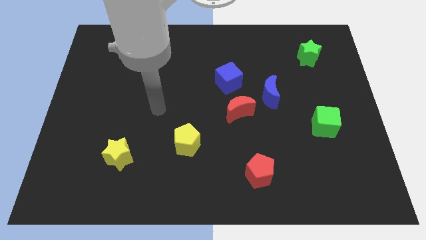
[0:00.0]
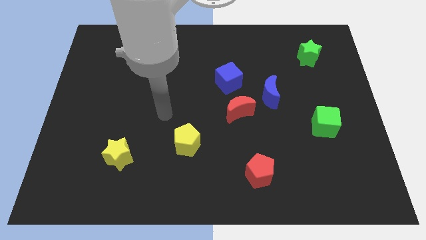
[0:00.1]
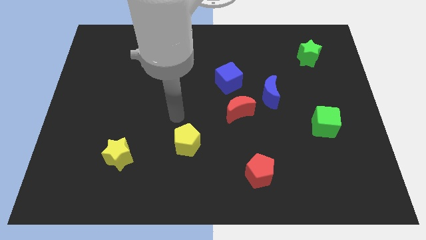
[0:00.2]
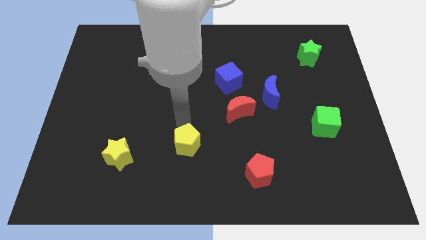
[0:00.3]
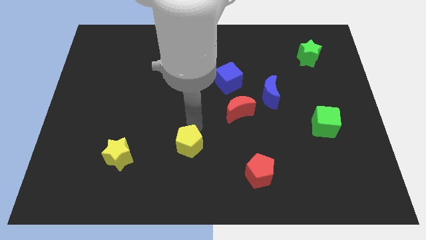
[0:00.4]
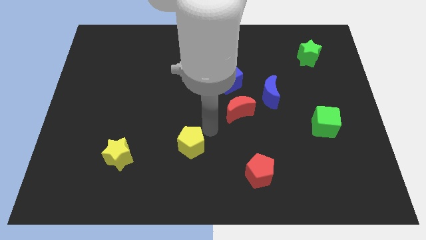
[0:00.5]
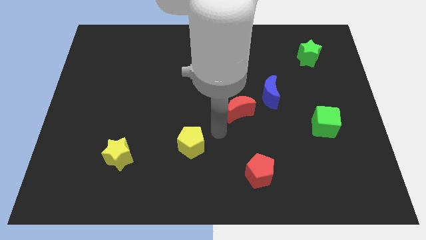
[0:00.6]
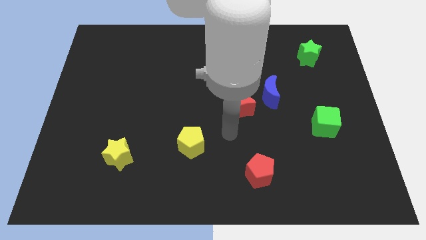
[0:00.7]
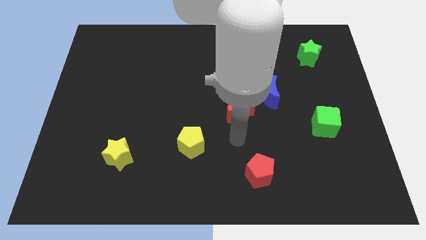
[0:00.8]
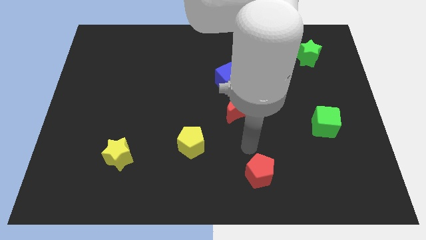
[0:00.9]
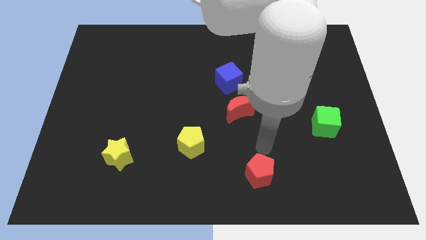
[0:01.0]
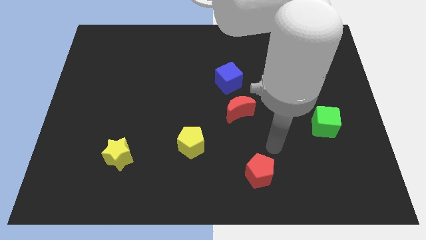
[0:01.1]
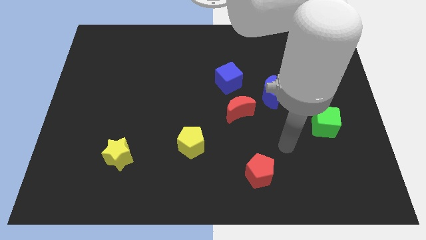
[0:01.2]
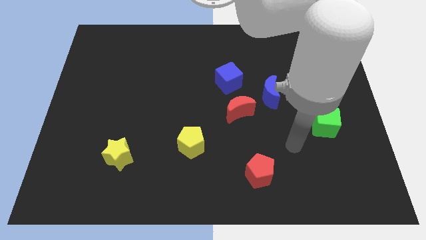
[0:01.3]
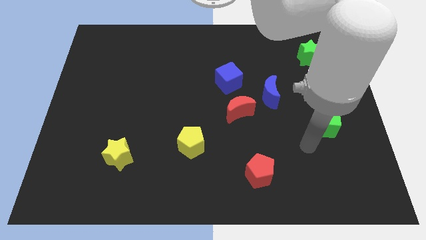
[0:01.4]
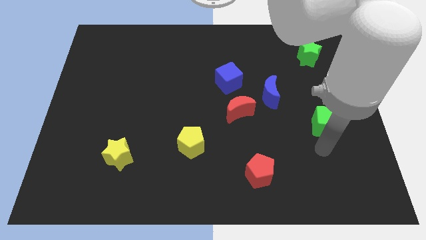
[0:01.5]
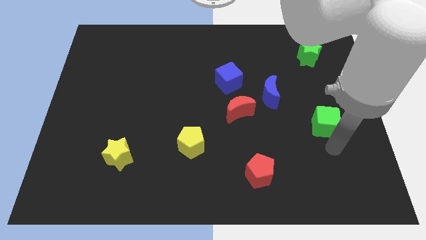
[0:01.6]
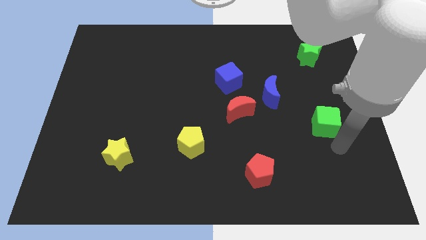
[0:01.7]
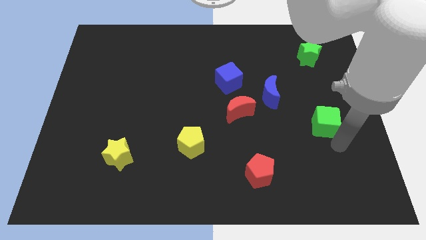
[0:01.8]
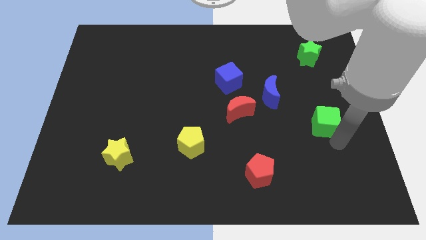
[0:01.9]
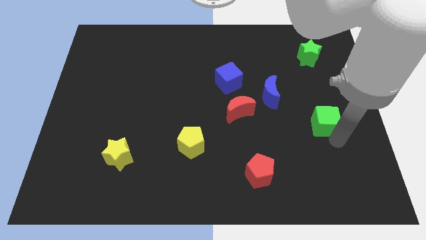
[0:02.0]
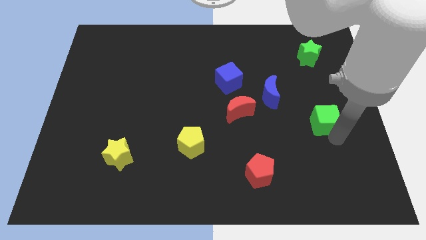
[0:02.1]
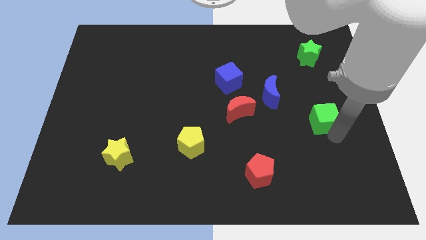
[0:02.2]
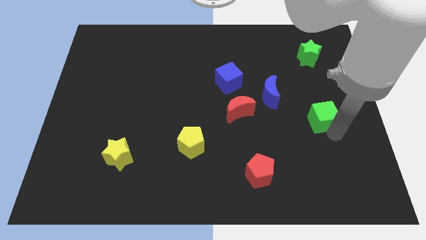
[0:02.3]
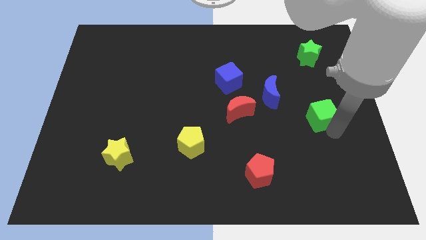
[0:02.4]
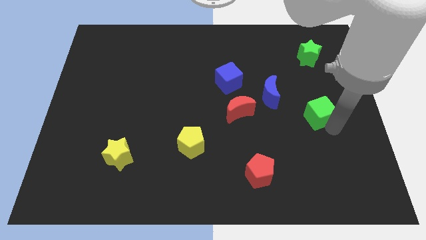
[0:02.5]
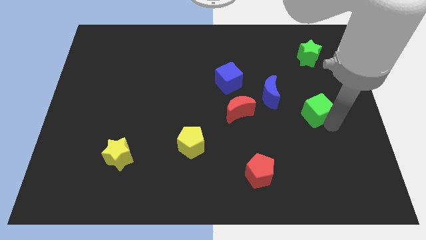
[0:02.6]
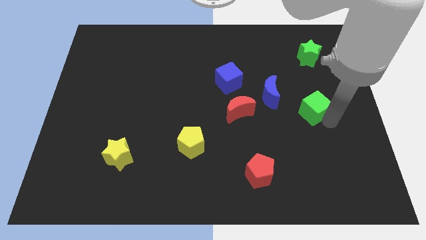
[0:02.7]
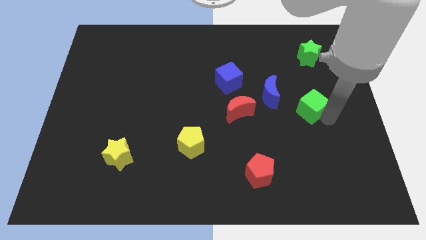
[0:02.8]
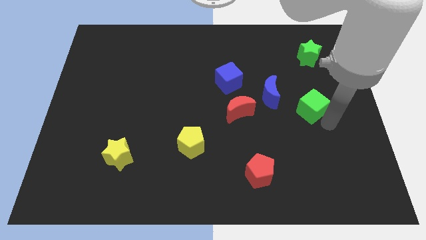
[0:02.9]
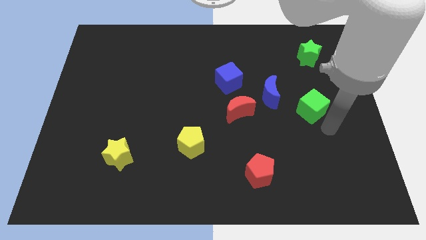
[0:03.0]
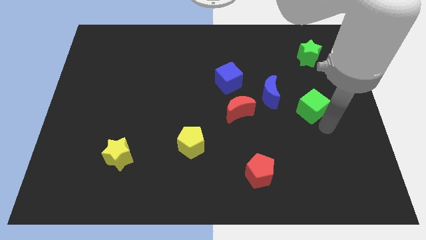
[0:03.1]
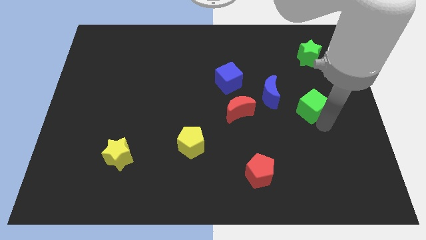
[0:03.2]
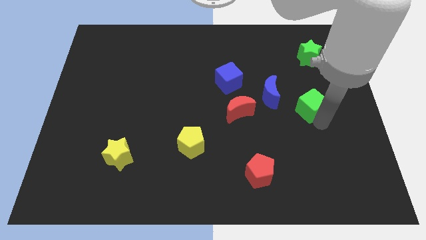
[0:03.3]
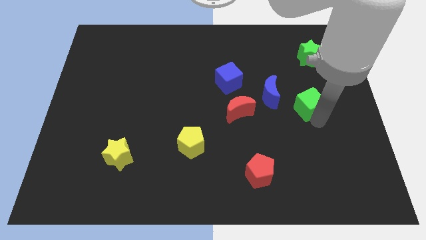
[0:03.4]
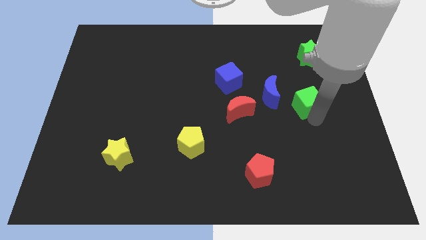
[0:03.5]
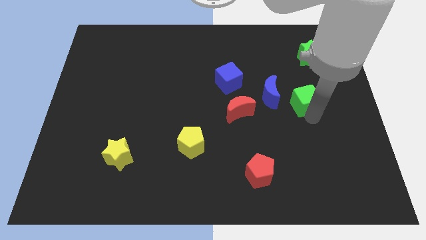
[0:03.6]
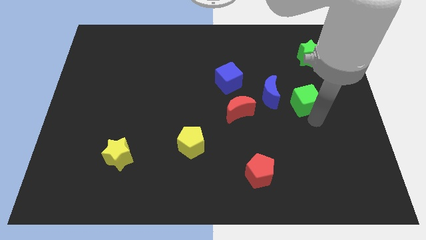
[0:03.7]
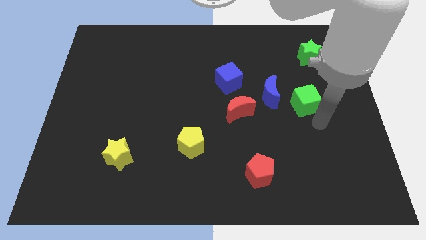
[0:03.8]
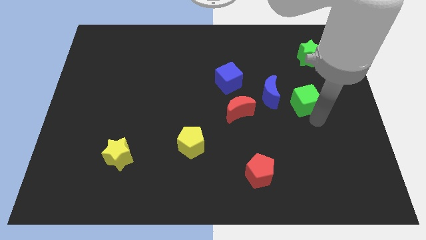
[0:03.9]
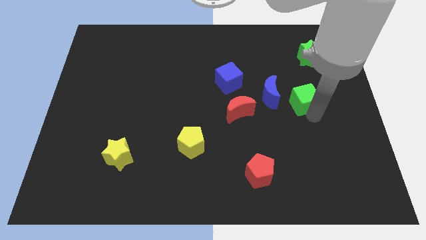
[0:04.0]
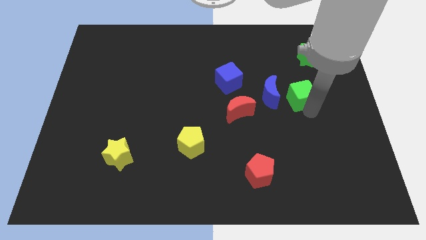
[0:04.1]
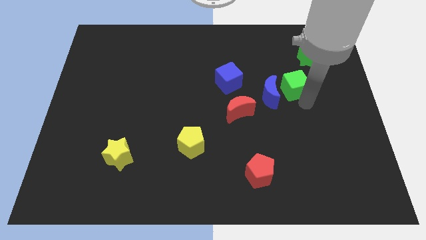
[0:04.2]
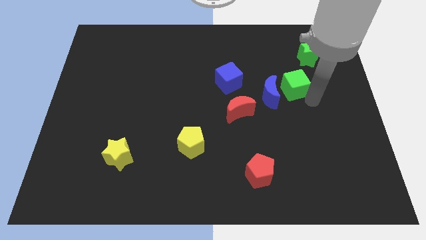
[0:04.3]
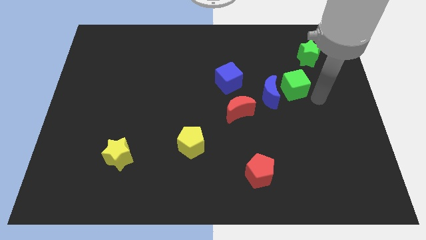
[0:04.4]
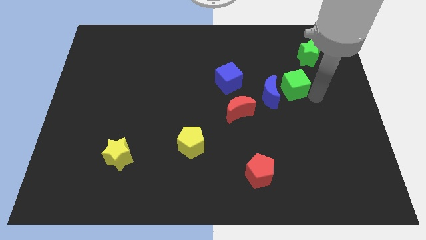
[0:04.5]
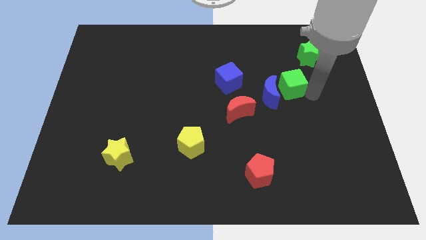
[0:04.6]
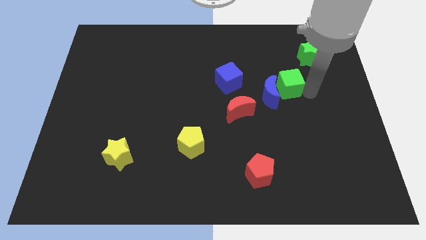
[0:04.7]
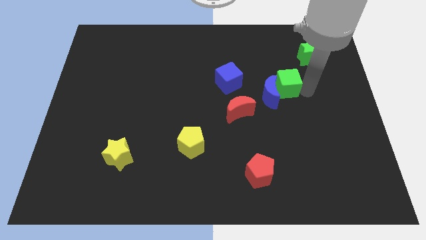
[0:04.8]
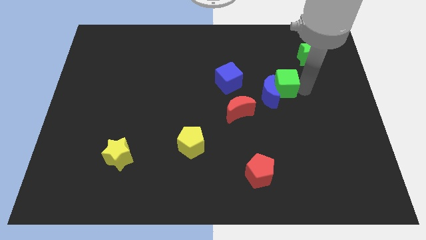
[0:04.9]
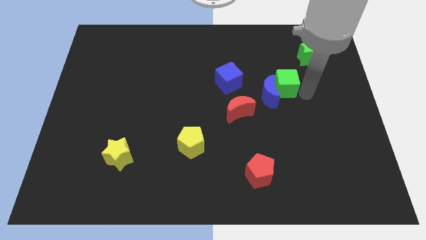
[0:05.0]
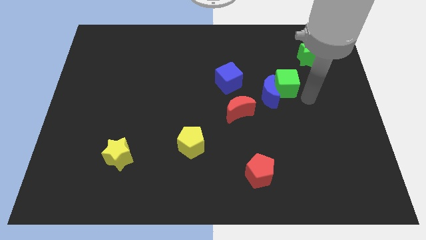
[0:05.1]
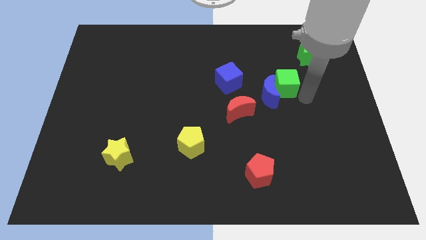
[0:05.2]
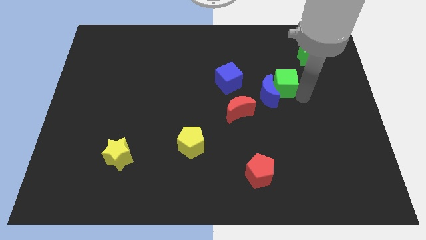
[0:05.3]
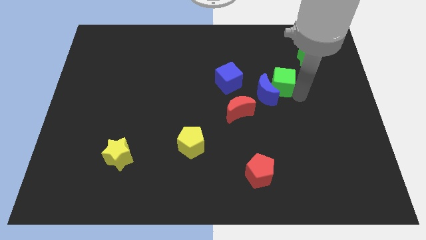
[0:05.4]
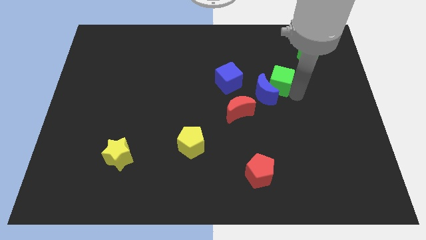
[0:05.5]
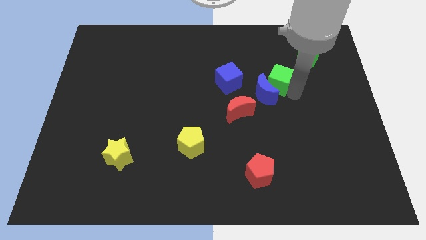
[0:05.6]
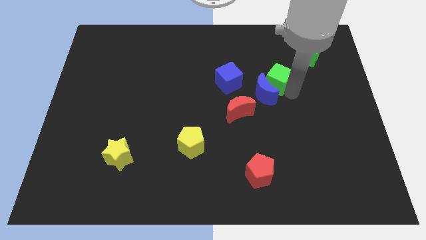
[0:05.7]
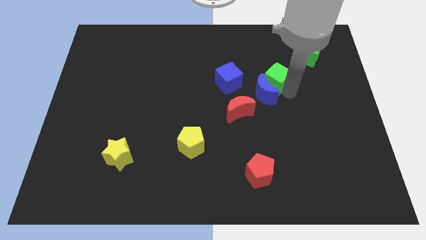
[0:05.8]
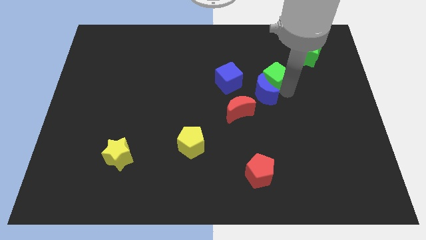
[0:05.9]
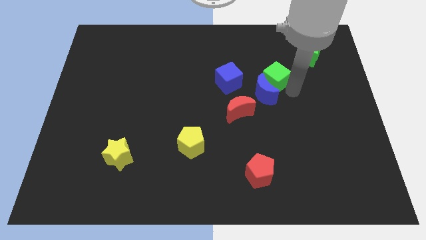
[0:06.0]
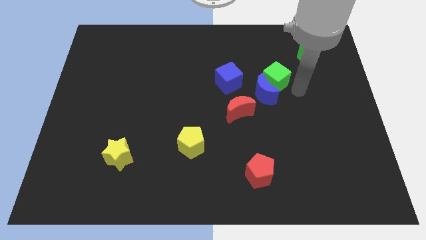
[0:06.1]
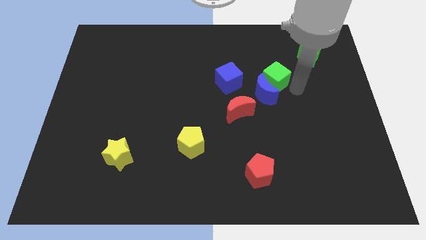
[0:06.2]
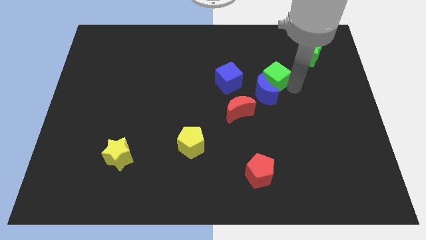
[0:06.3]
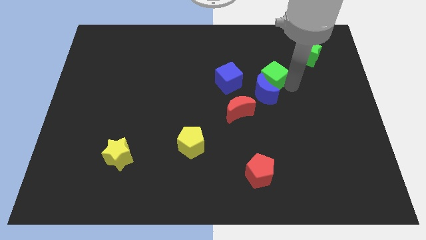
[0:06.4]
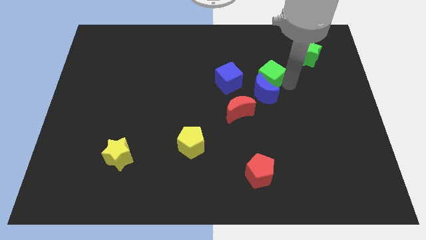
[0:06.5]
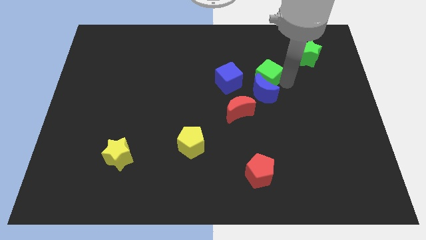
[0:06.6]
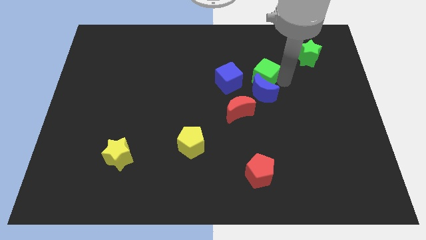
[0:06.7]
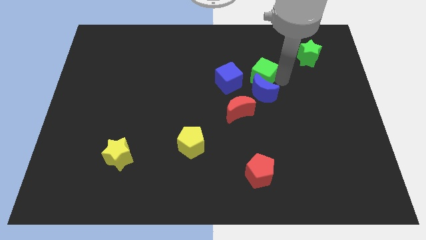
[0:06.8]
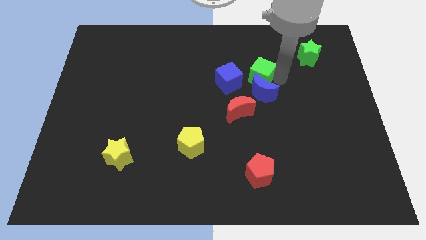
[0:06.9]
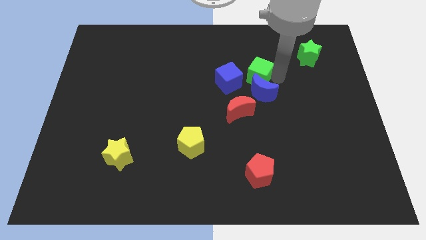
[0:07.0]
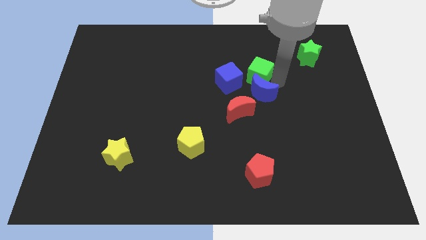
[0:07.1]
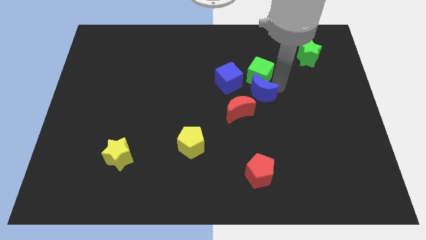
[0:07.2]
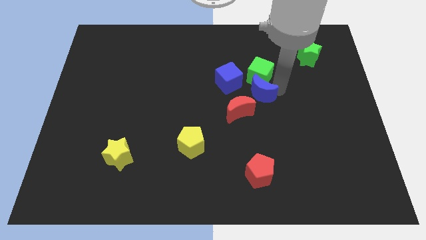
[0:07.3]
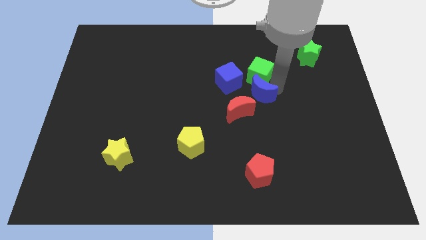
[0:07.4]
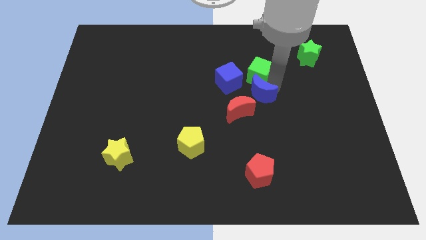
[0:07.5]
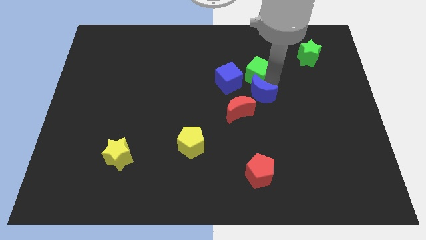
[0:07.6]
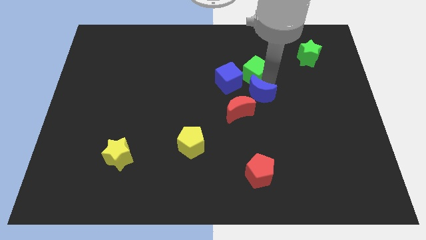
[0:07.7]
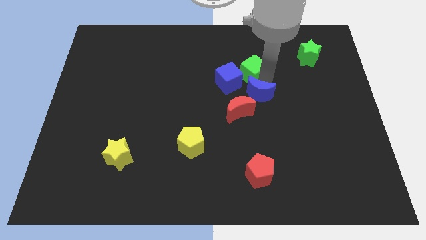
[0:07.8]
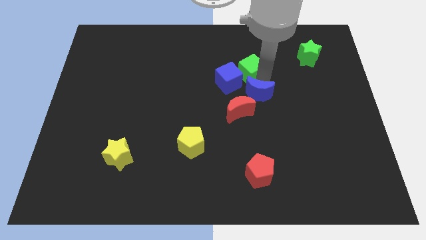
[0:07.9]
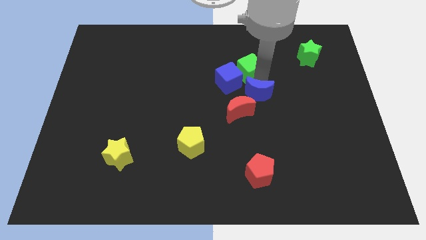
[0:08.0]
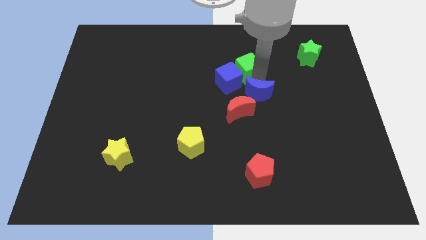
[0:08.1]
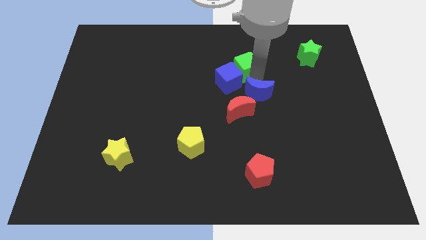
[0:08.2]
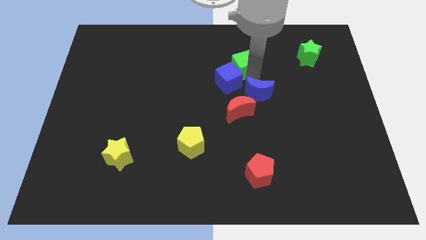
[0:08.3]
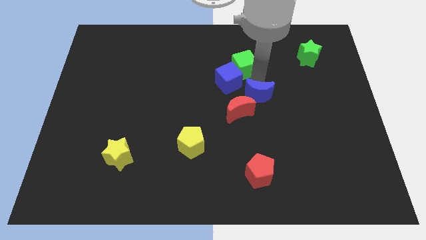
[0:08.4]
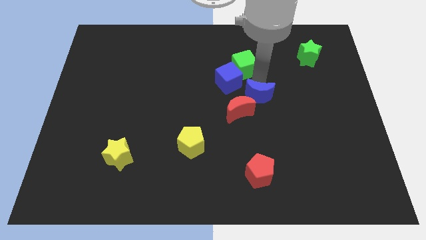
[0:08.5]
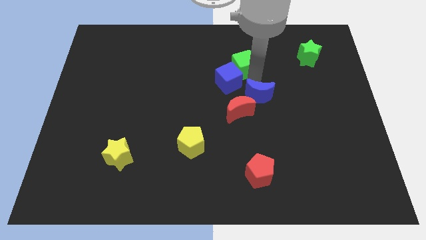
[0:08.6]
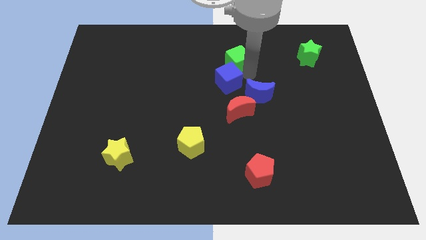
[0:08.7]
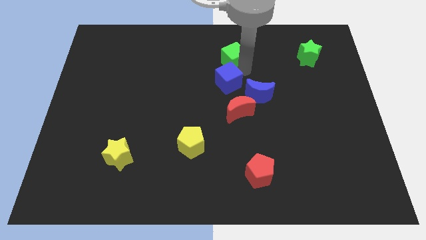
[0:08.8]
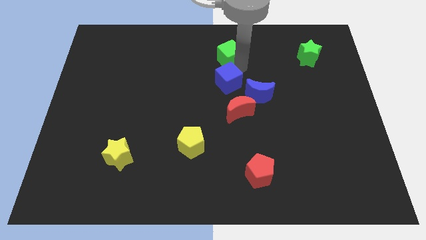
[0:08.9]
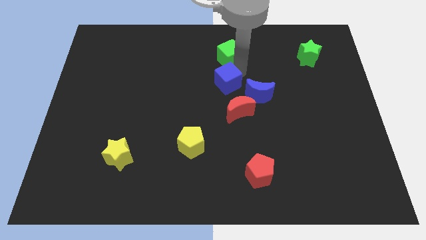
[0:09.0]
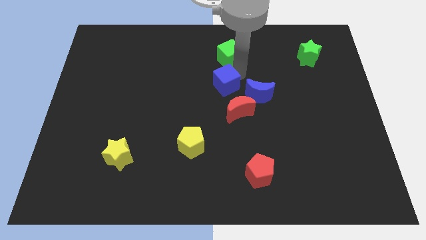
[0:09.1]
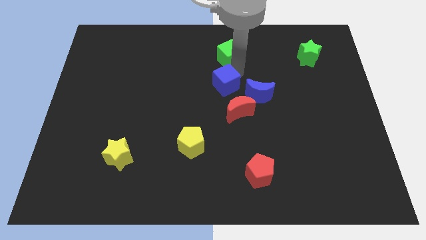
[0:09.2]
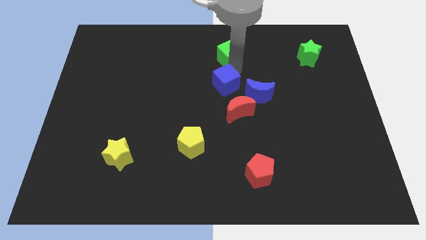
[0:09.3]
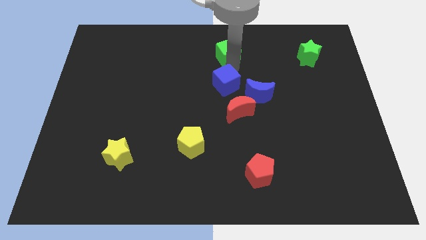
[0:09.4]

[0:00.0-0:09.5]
slide the green cube to the top side
